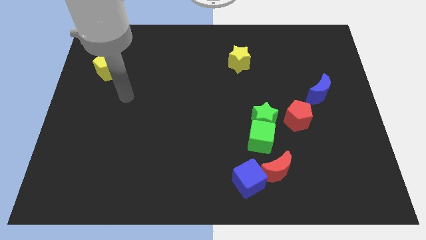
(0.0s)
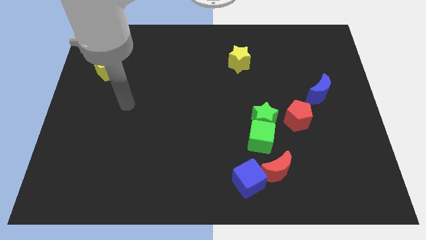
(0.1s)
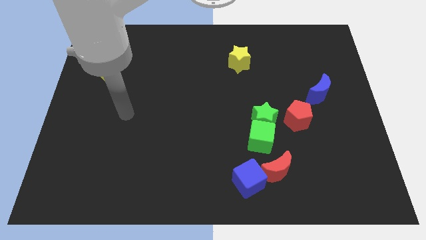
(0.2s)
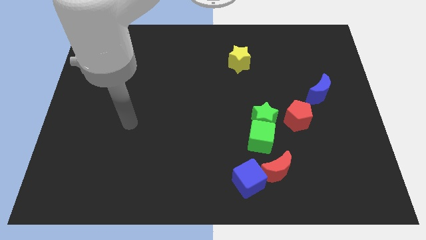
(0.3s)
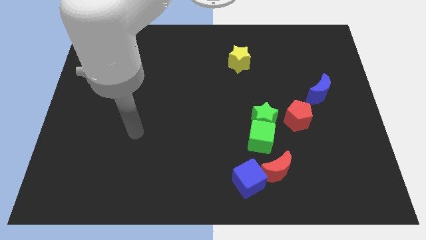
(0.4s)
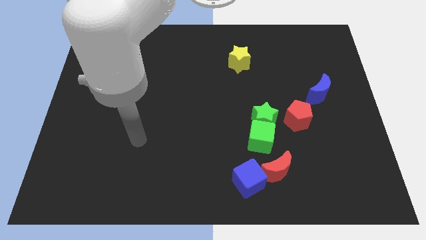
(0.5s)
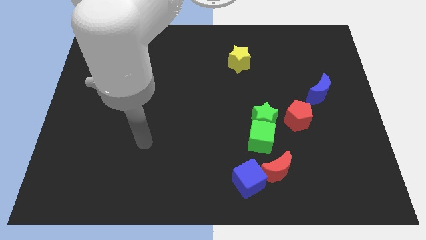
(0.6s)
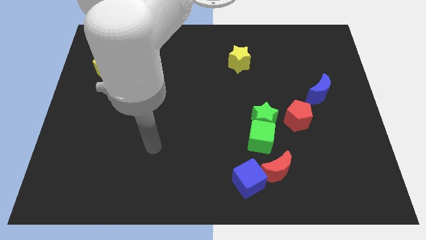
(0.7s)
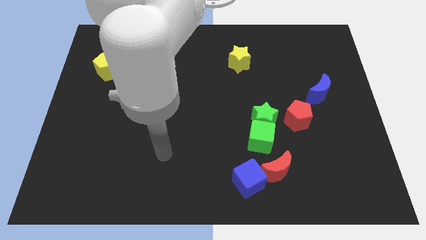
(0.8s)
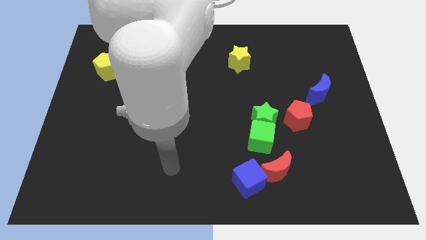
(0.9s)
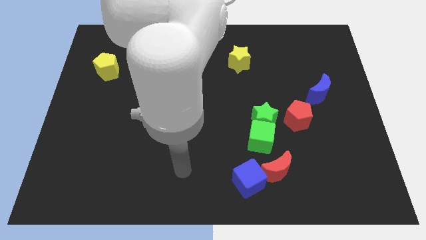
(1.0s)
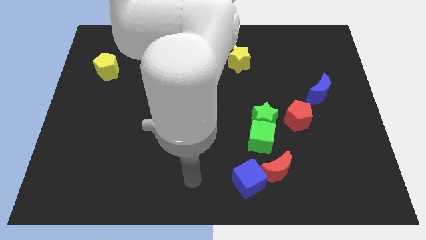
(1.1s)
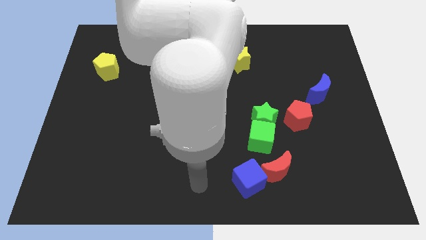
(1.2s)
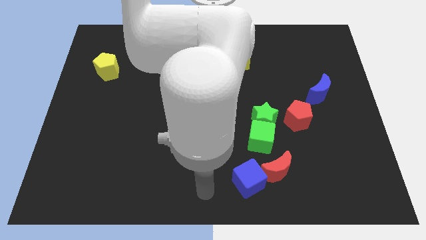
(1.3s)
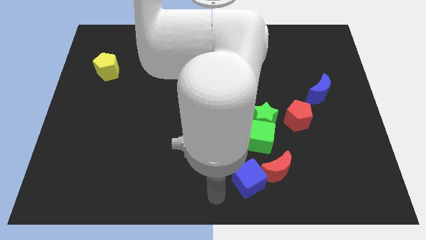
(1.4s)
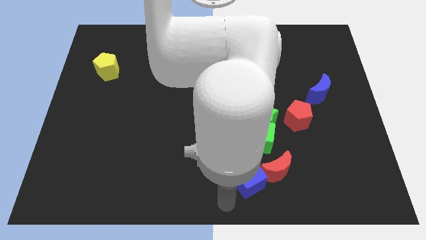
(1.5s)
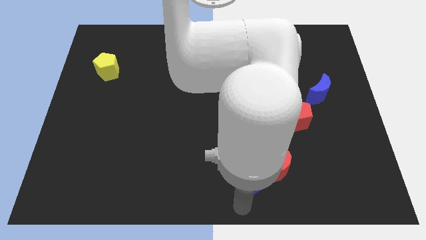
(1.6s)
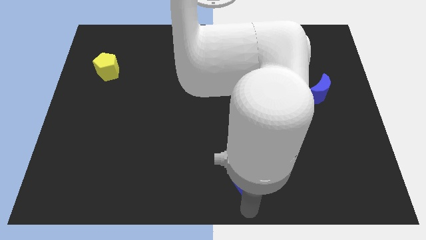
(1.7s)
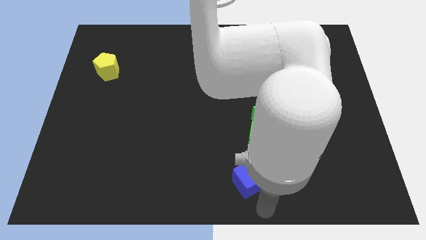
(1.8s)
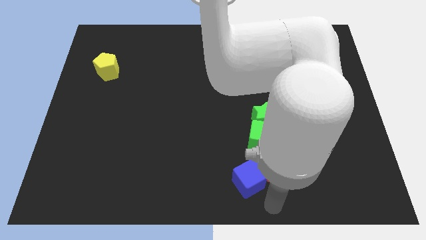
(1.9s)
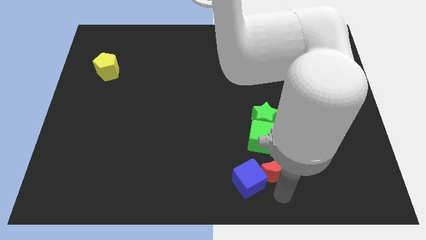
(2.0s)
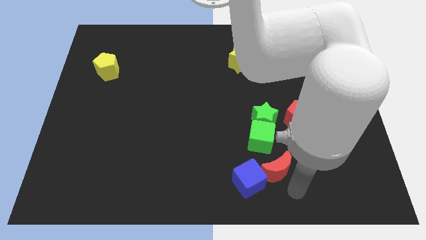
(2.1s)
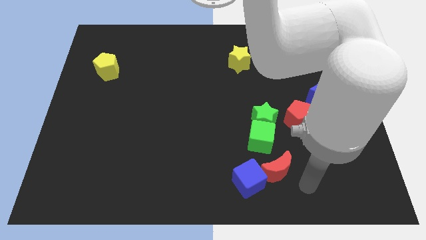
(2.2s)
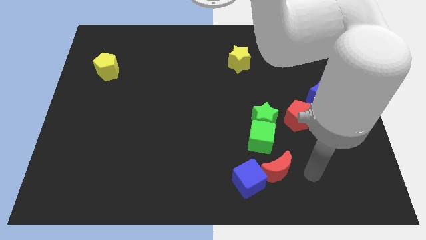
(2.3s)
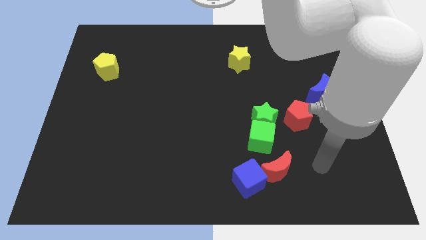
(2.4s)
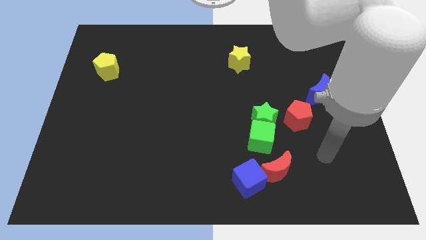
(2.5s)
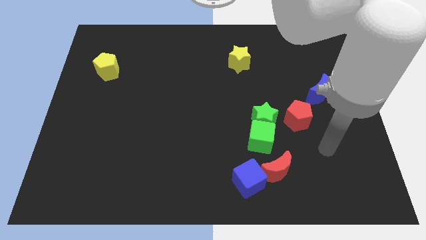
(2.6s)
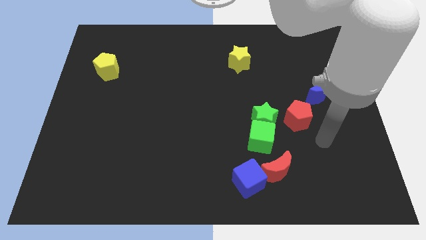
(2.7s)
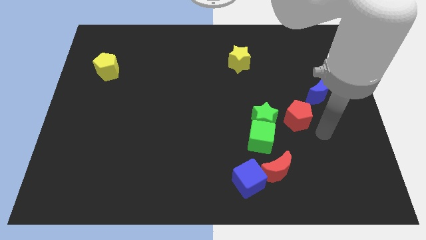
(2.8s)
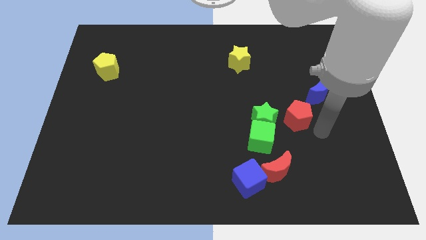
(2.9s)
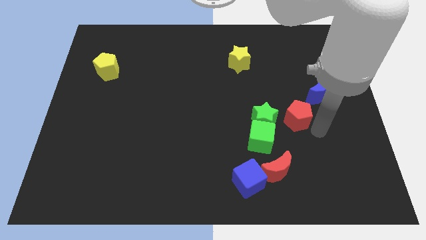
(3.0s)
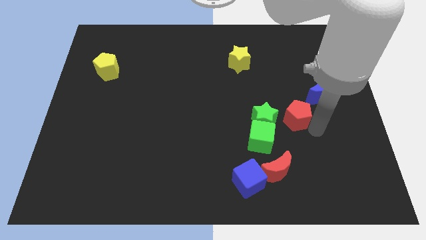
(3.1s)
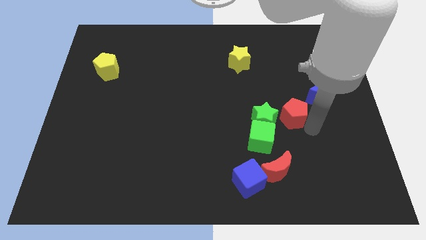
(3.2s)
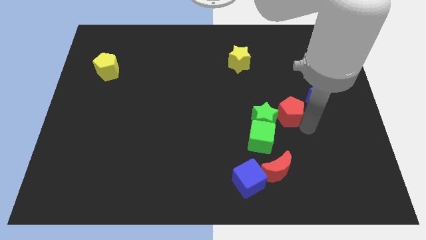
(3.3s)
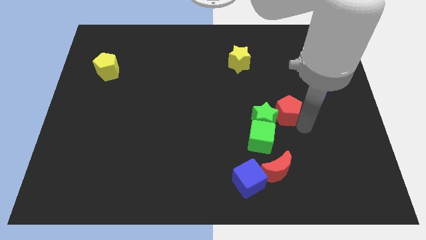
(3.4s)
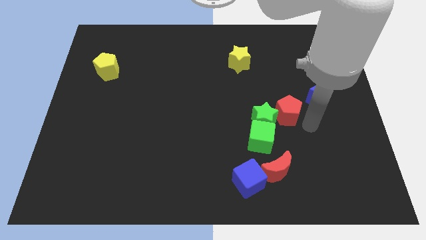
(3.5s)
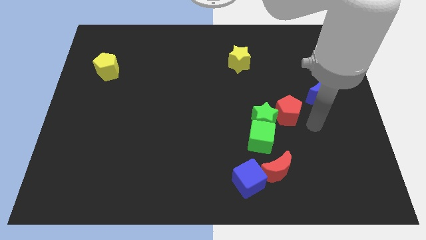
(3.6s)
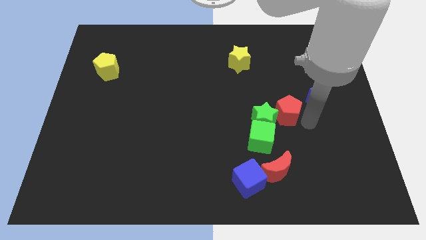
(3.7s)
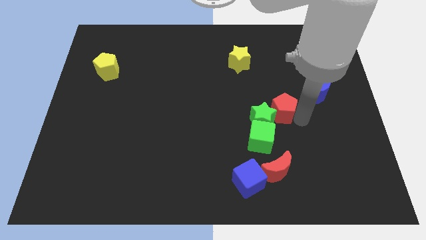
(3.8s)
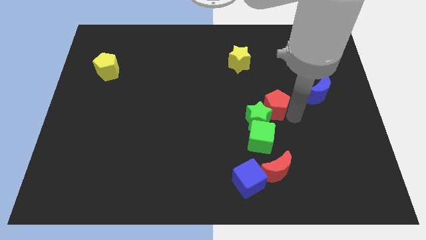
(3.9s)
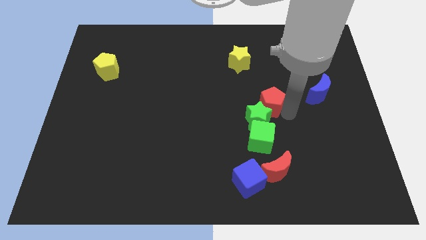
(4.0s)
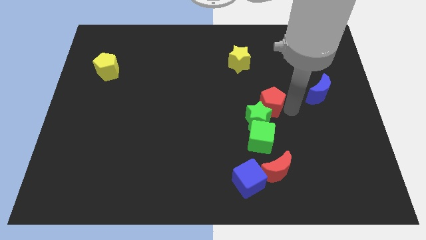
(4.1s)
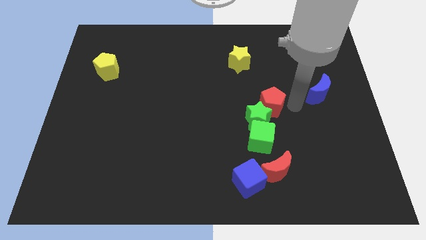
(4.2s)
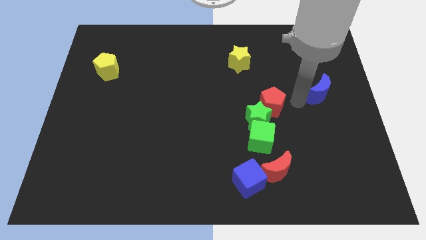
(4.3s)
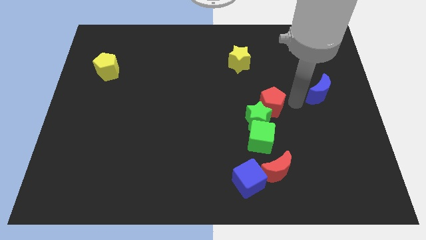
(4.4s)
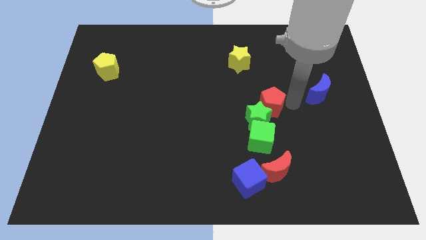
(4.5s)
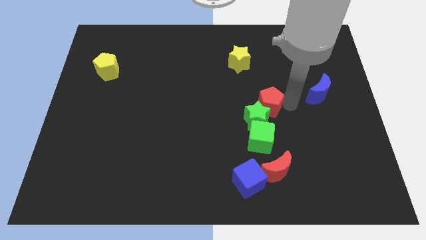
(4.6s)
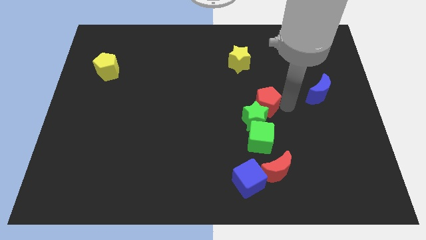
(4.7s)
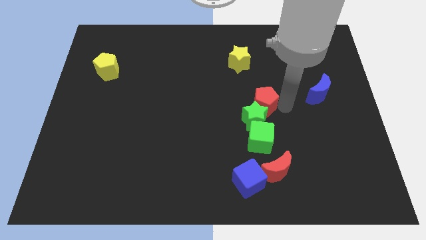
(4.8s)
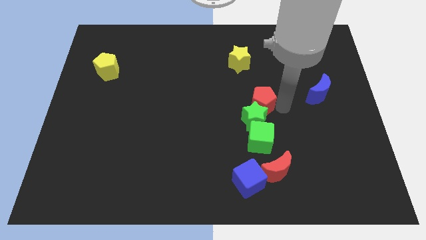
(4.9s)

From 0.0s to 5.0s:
slightly move the red pentagon to the left

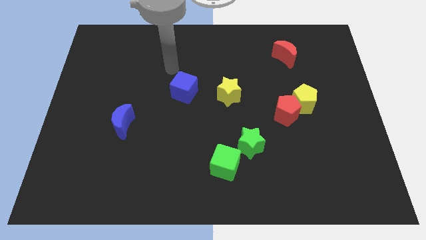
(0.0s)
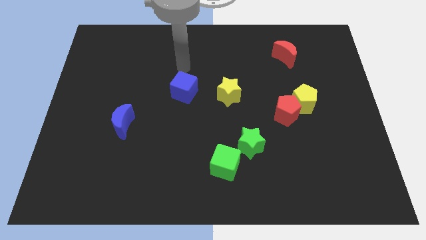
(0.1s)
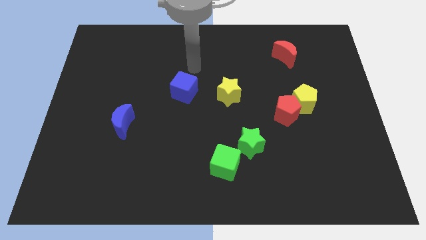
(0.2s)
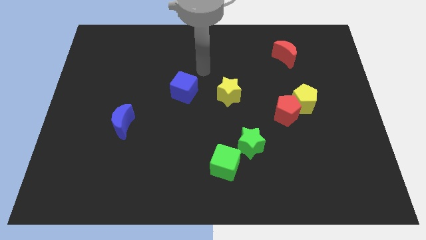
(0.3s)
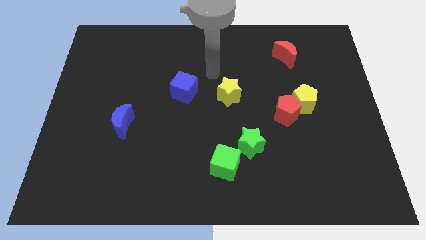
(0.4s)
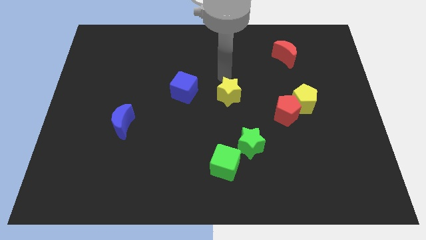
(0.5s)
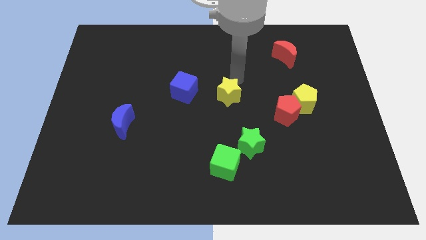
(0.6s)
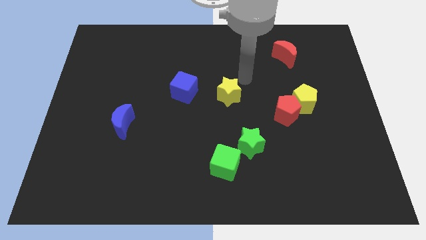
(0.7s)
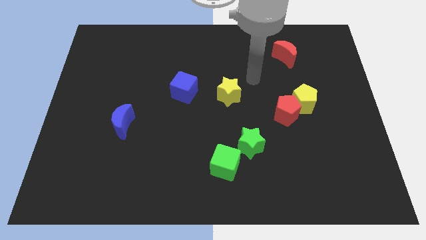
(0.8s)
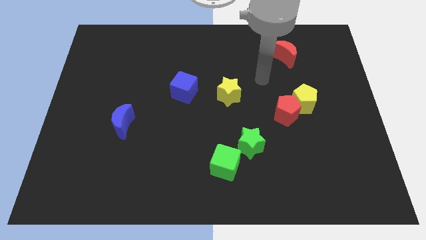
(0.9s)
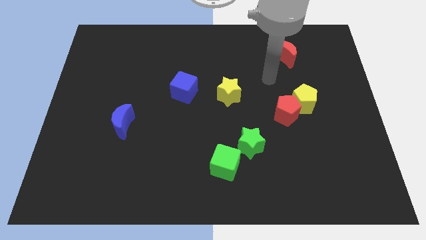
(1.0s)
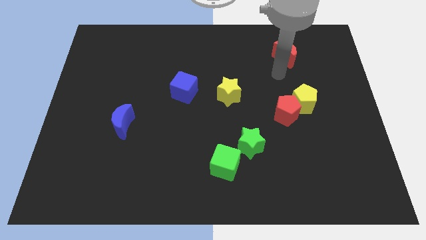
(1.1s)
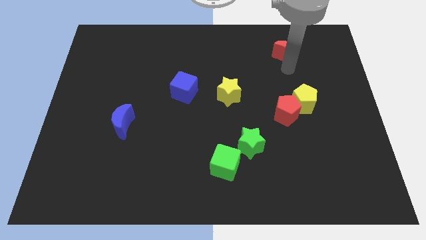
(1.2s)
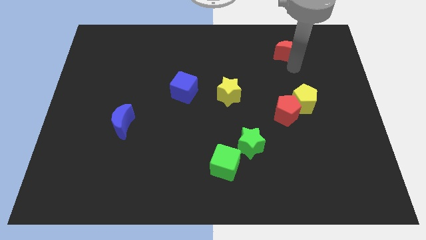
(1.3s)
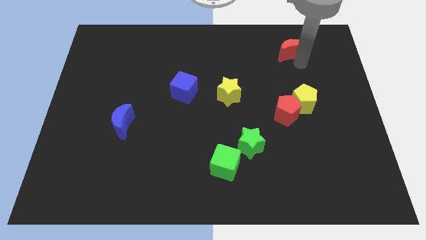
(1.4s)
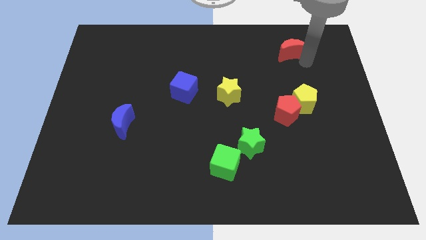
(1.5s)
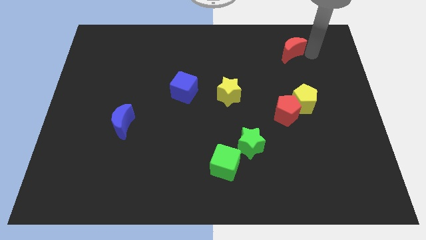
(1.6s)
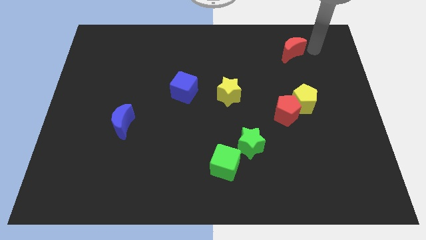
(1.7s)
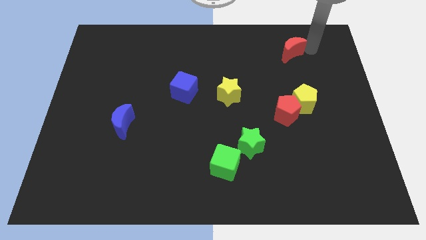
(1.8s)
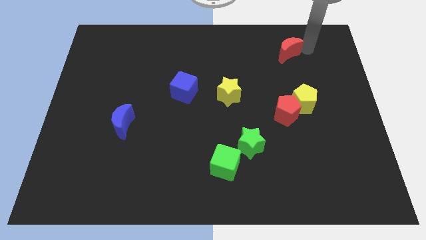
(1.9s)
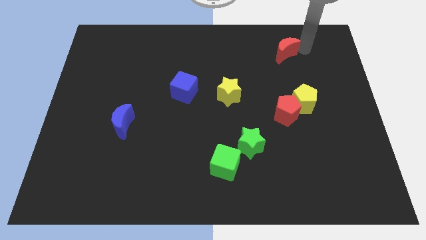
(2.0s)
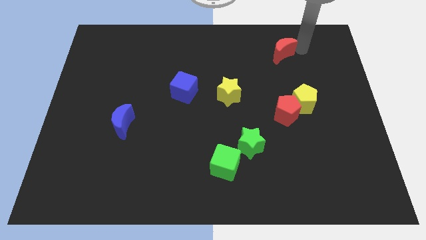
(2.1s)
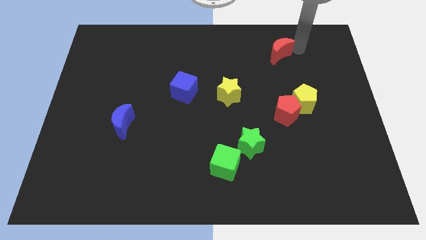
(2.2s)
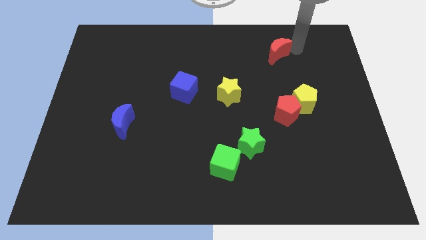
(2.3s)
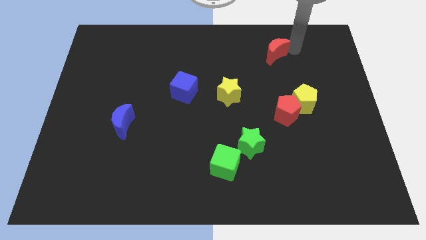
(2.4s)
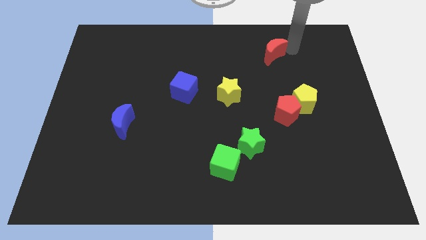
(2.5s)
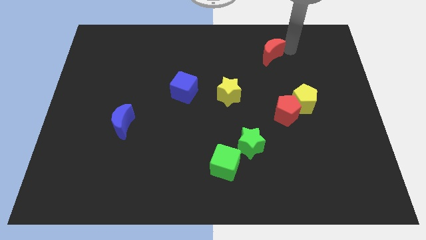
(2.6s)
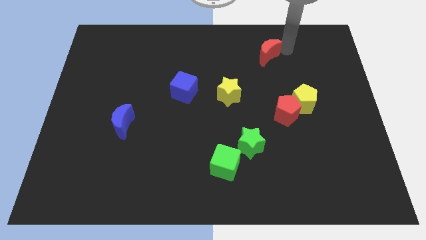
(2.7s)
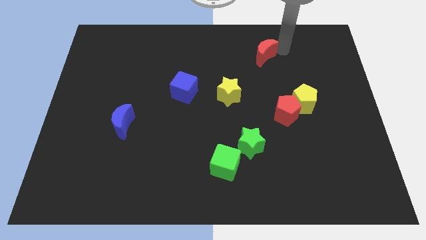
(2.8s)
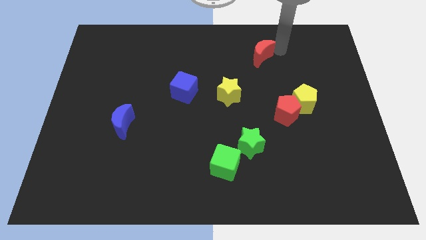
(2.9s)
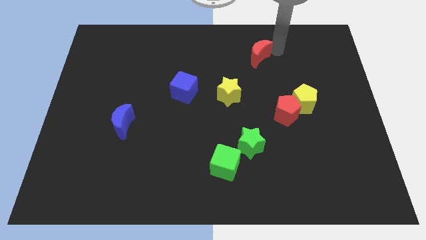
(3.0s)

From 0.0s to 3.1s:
slide the red moon to the left somewhat

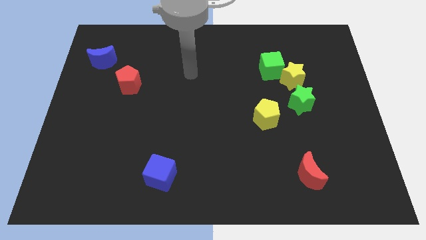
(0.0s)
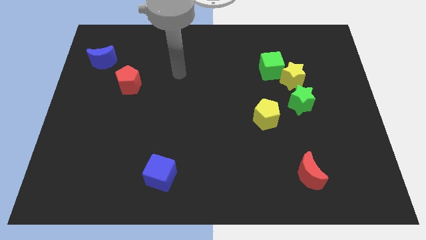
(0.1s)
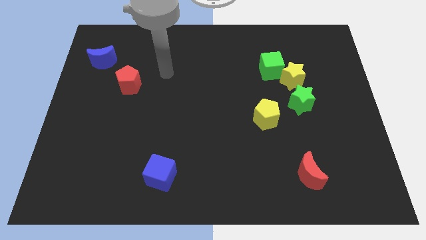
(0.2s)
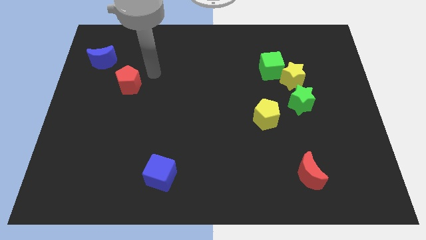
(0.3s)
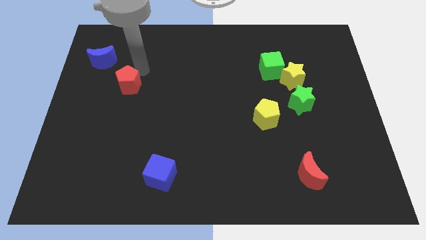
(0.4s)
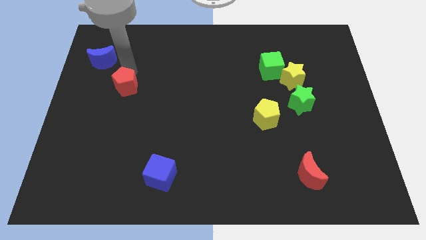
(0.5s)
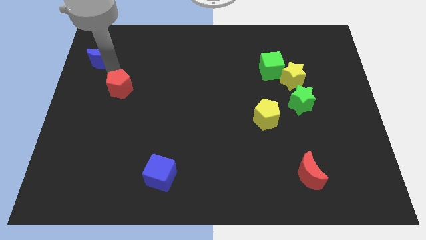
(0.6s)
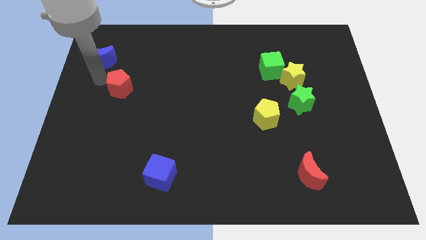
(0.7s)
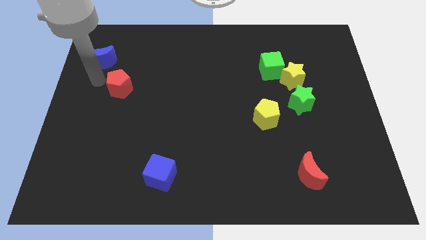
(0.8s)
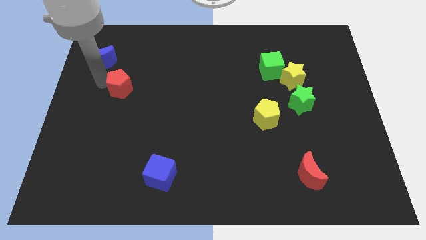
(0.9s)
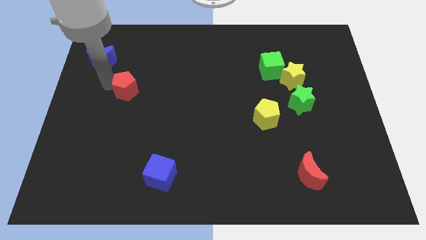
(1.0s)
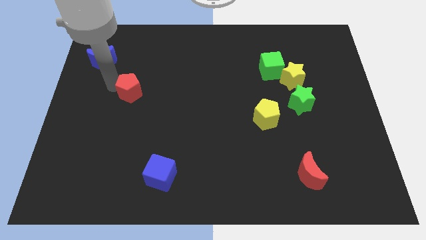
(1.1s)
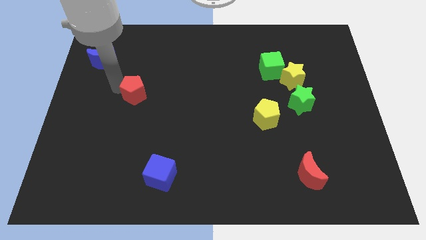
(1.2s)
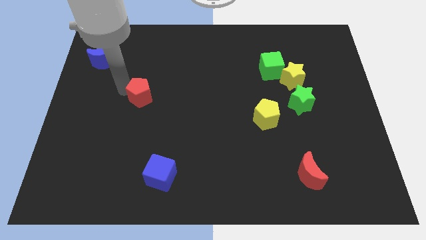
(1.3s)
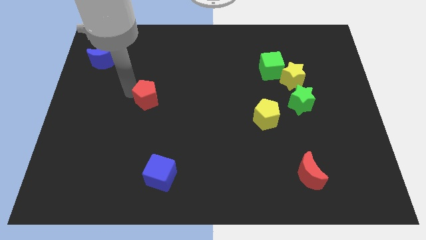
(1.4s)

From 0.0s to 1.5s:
move the red pentagon diagonally down and right a bit
